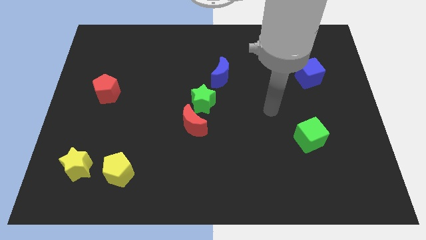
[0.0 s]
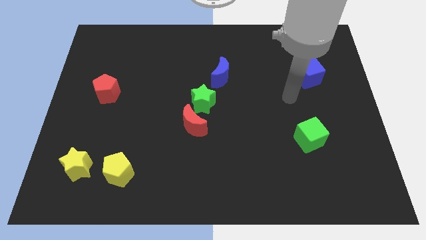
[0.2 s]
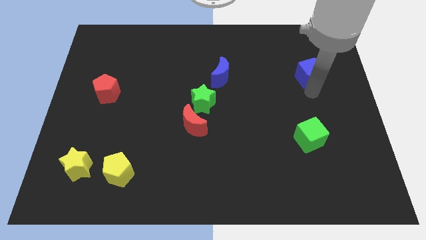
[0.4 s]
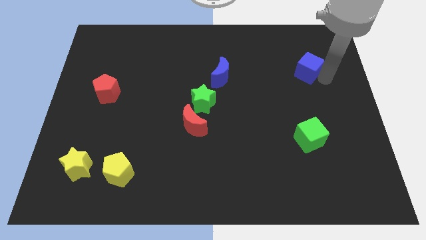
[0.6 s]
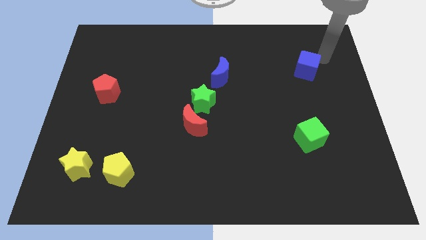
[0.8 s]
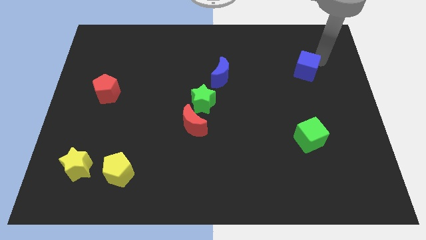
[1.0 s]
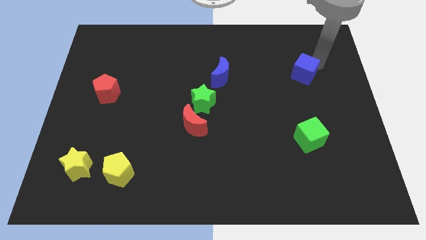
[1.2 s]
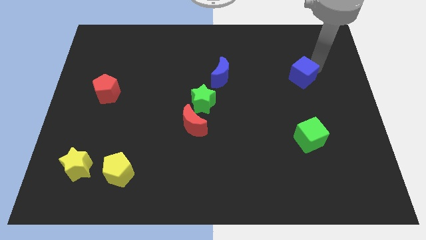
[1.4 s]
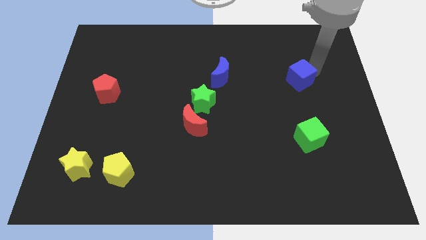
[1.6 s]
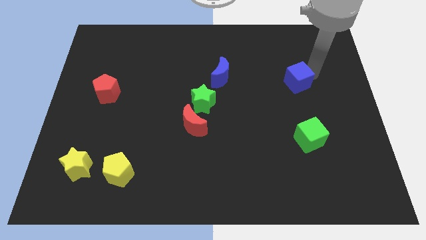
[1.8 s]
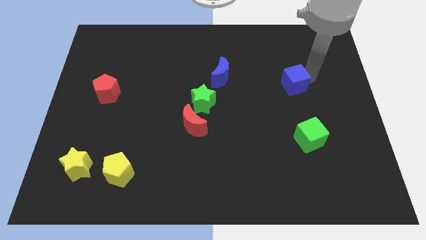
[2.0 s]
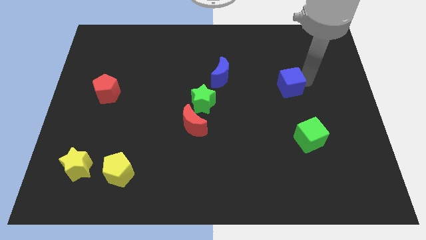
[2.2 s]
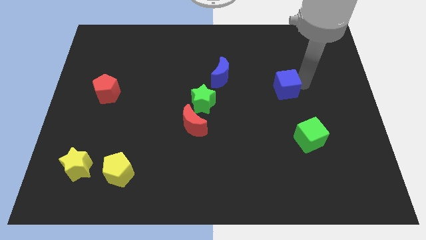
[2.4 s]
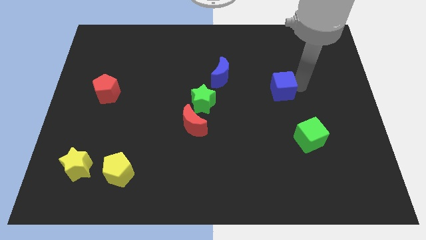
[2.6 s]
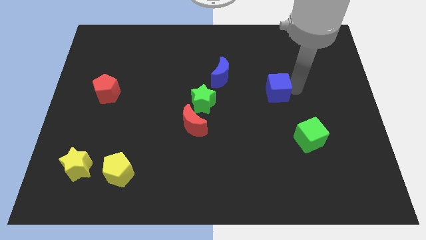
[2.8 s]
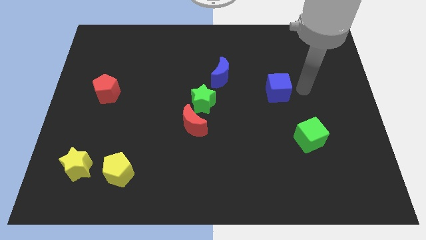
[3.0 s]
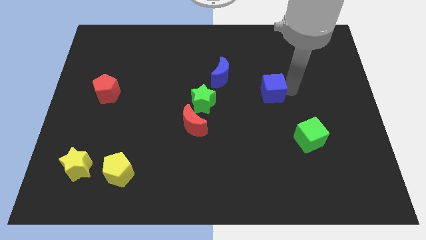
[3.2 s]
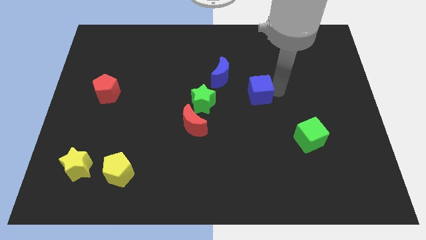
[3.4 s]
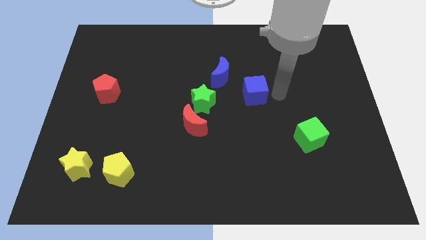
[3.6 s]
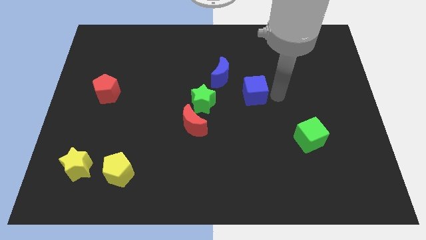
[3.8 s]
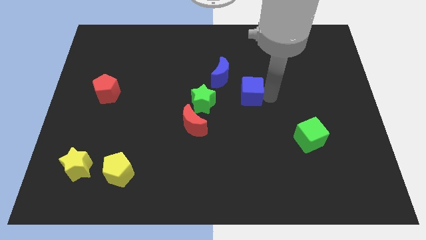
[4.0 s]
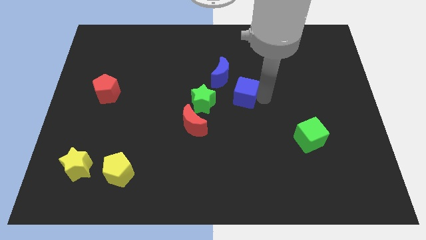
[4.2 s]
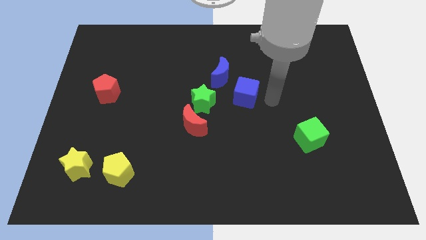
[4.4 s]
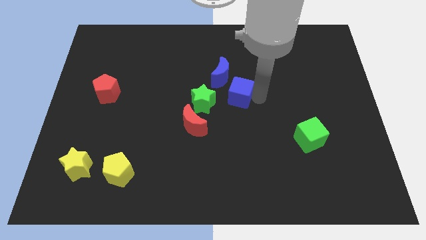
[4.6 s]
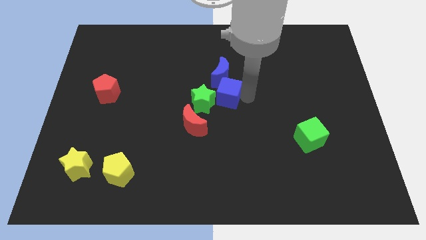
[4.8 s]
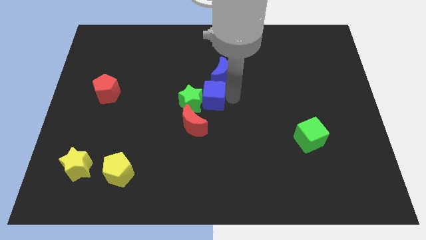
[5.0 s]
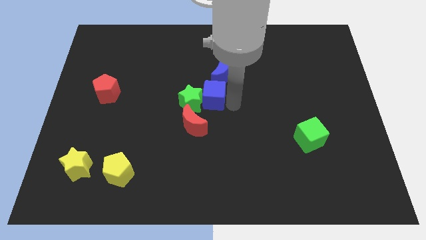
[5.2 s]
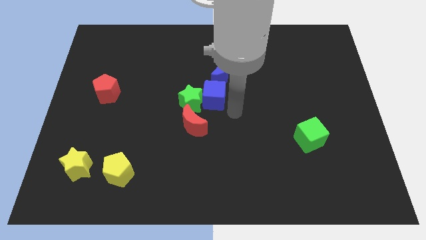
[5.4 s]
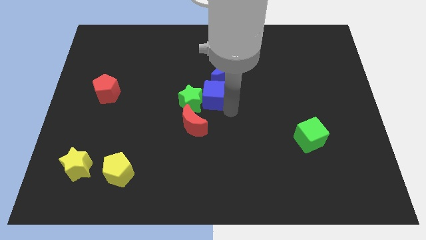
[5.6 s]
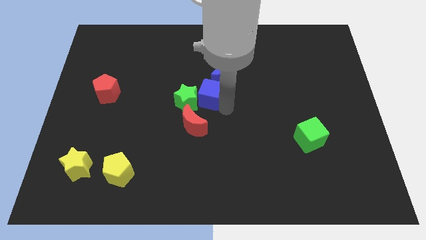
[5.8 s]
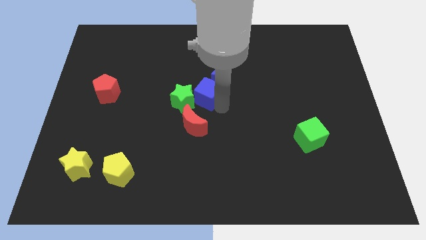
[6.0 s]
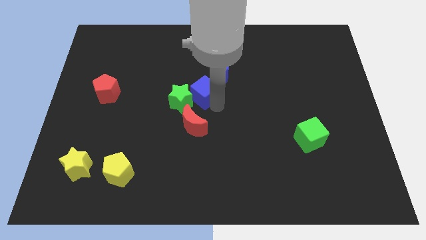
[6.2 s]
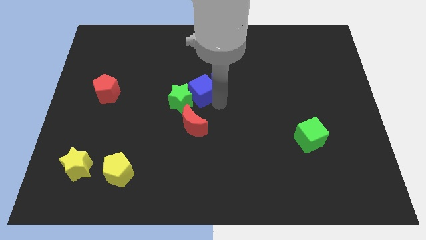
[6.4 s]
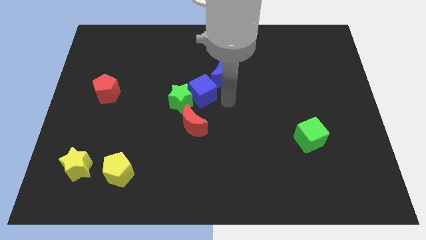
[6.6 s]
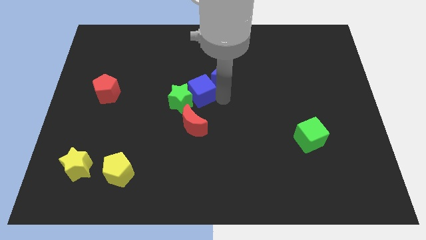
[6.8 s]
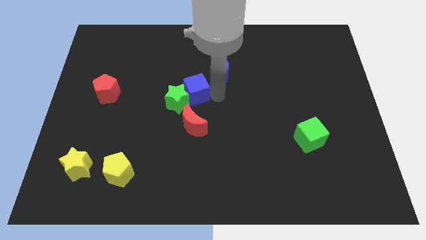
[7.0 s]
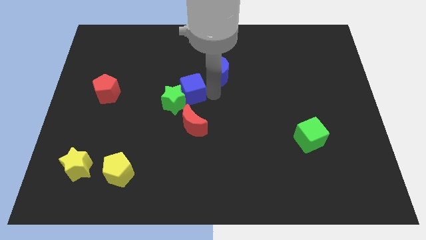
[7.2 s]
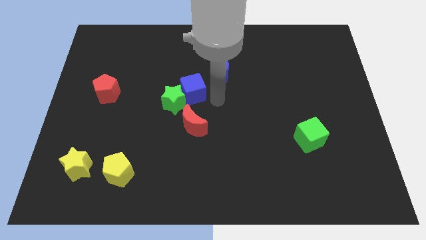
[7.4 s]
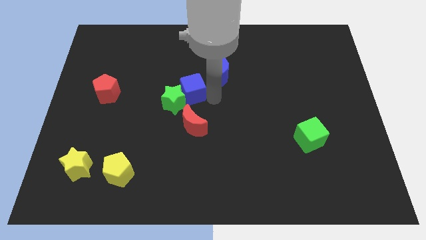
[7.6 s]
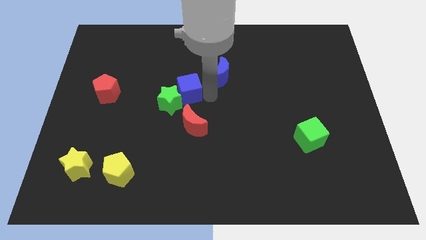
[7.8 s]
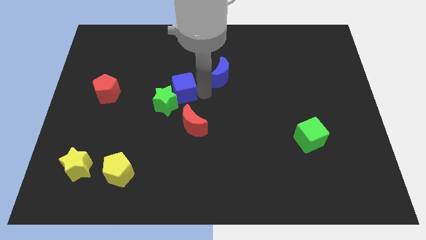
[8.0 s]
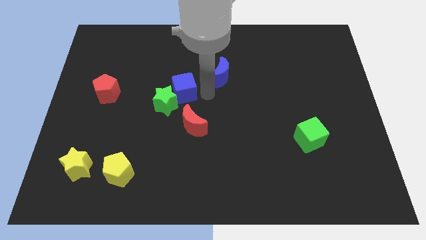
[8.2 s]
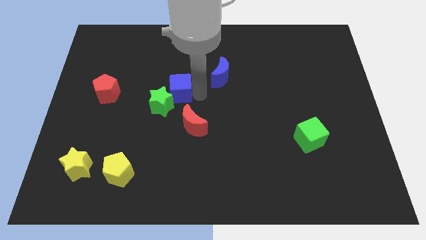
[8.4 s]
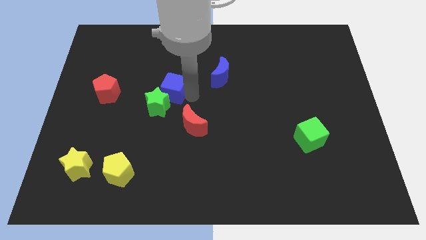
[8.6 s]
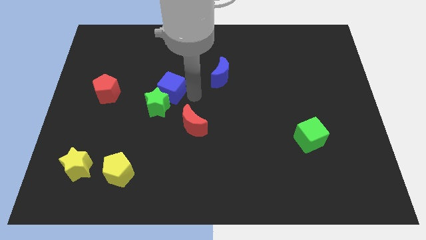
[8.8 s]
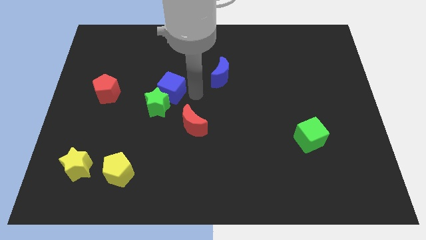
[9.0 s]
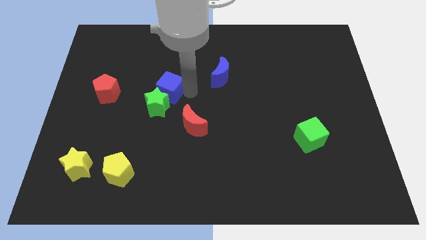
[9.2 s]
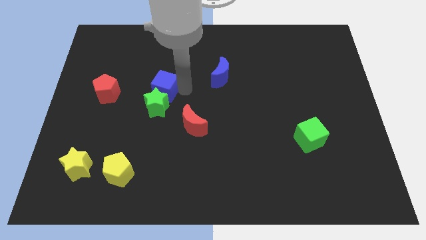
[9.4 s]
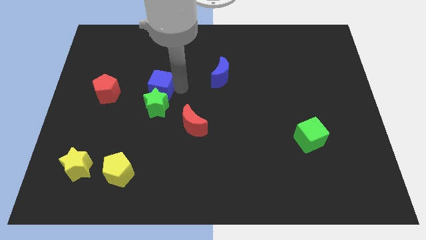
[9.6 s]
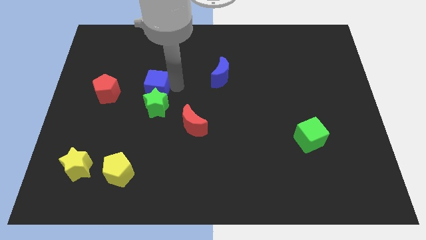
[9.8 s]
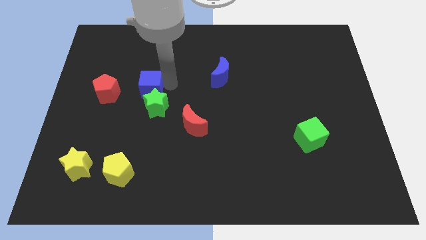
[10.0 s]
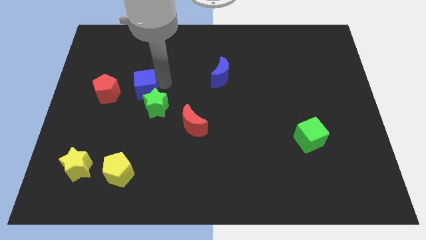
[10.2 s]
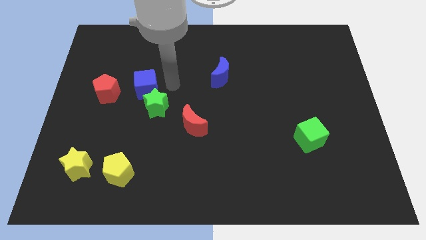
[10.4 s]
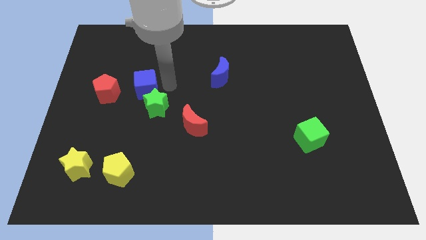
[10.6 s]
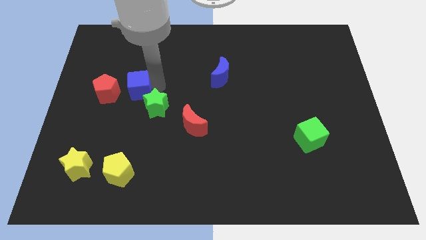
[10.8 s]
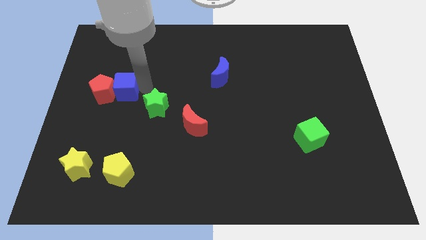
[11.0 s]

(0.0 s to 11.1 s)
slide the blue cube to the red pentagon

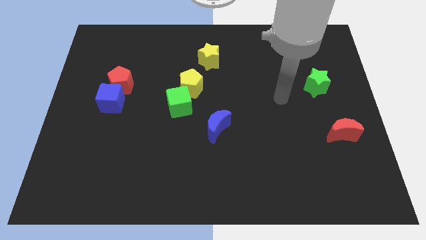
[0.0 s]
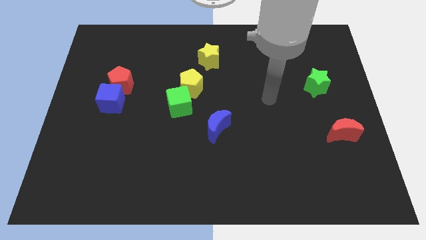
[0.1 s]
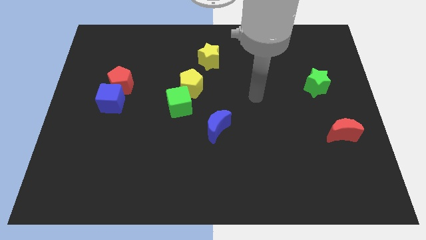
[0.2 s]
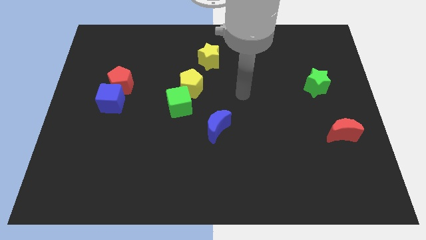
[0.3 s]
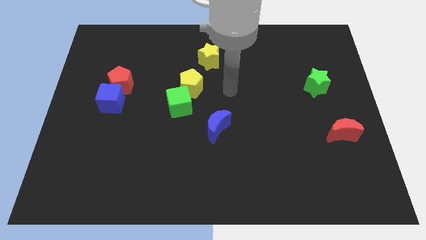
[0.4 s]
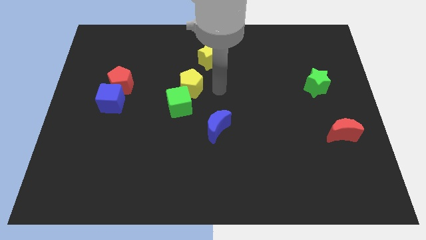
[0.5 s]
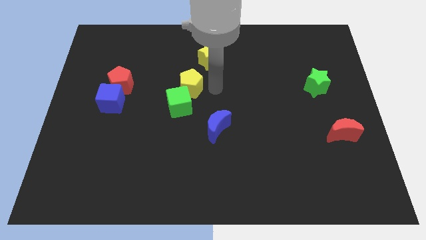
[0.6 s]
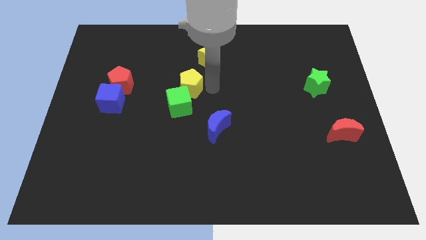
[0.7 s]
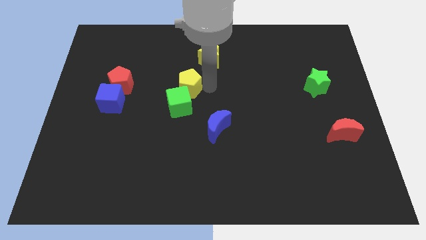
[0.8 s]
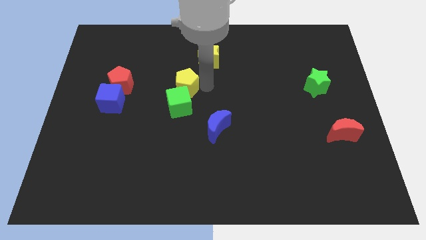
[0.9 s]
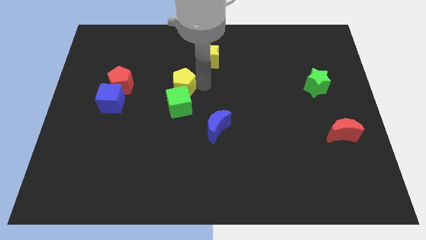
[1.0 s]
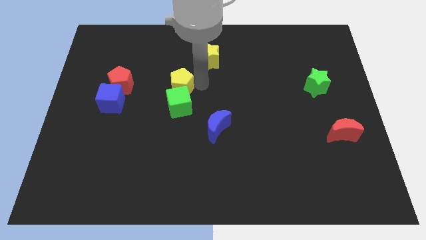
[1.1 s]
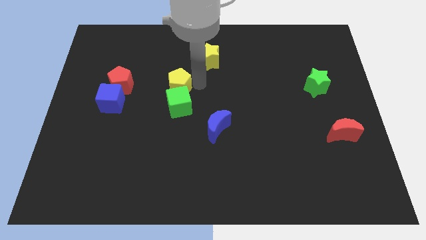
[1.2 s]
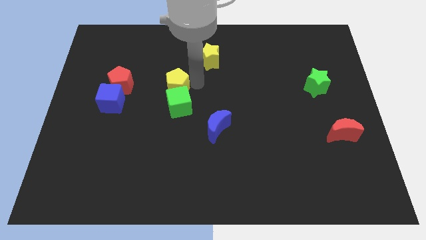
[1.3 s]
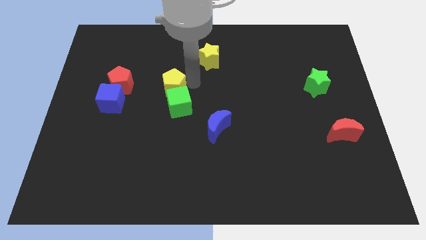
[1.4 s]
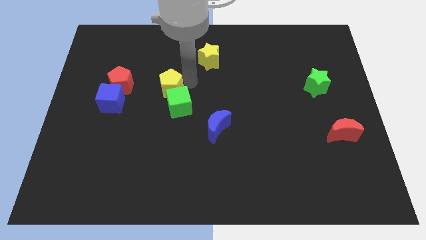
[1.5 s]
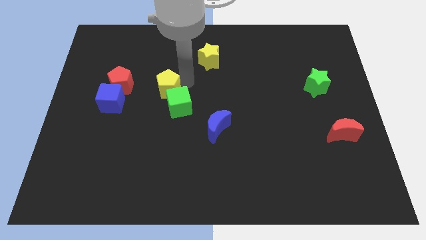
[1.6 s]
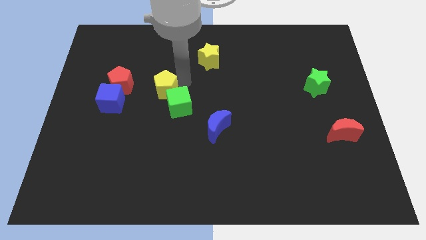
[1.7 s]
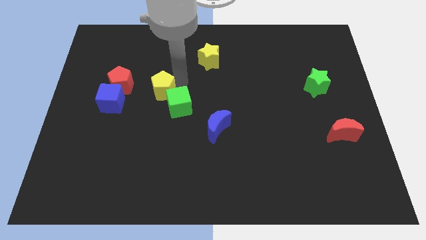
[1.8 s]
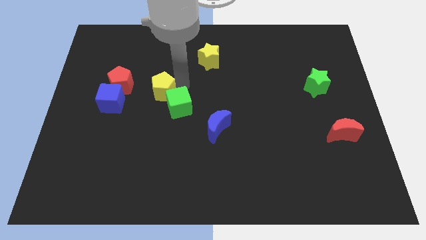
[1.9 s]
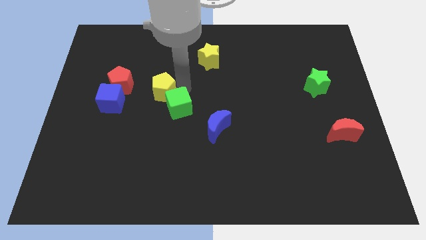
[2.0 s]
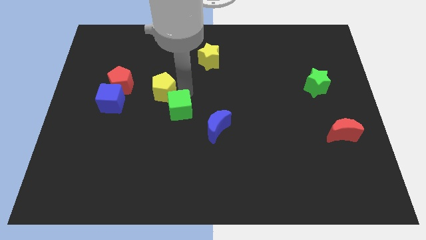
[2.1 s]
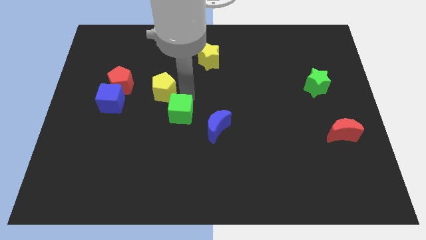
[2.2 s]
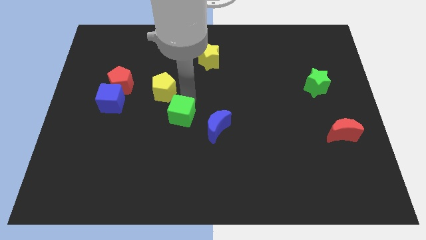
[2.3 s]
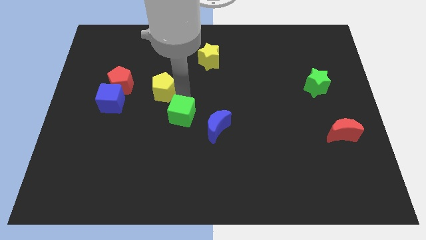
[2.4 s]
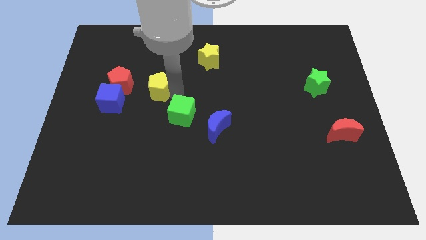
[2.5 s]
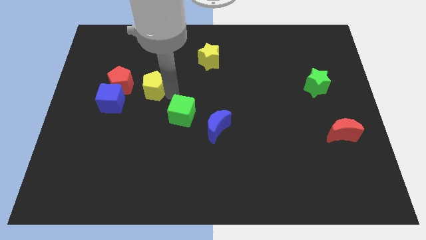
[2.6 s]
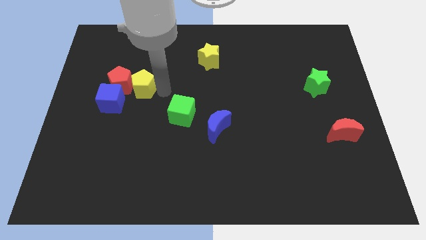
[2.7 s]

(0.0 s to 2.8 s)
push the yellow pentagon to the red pentagon
